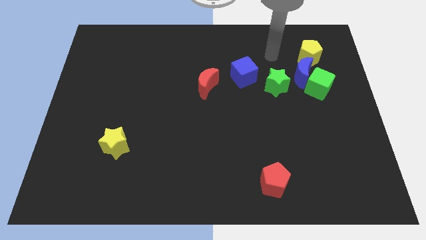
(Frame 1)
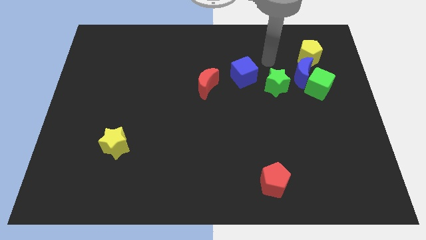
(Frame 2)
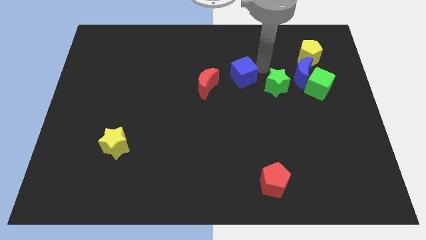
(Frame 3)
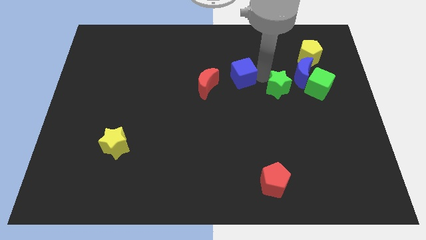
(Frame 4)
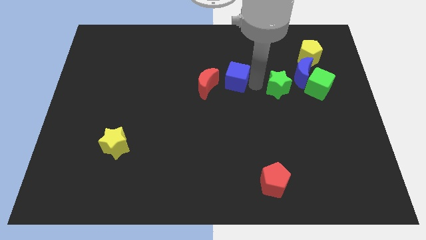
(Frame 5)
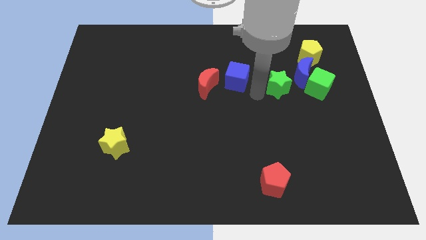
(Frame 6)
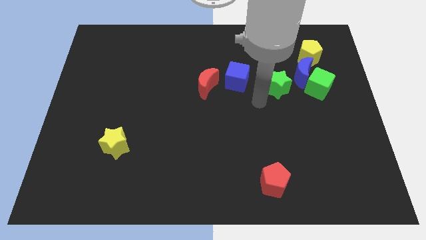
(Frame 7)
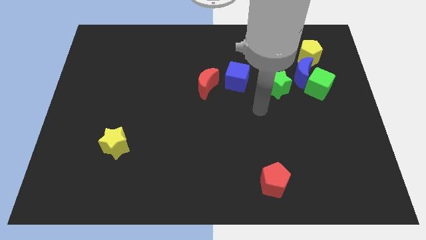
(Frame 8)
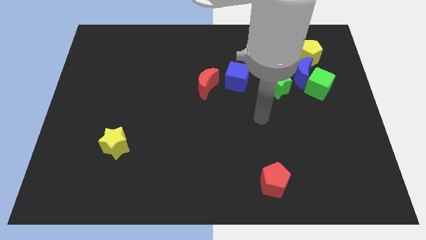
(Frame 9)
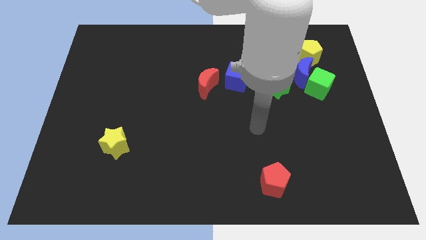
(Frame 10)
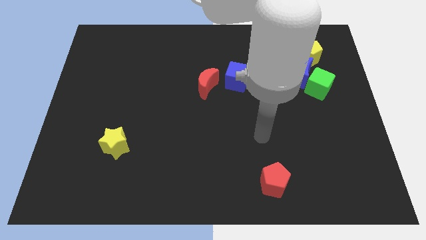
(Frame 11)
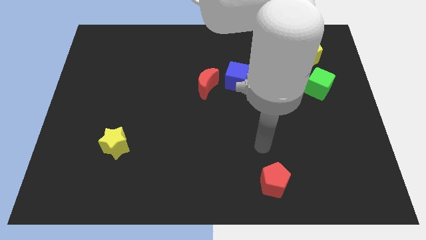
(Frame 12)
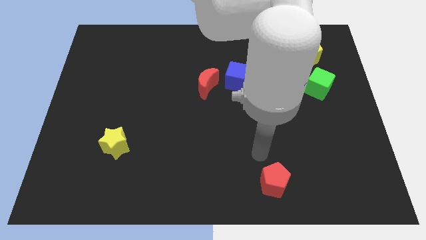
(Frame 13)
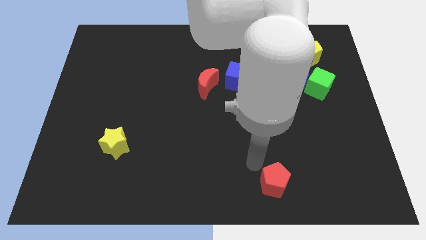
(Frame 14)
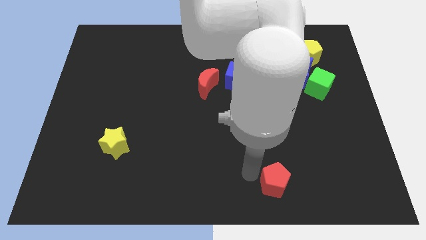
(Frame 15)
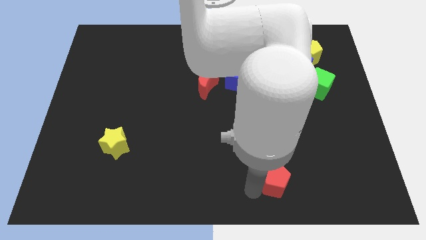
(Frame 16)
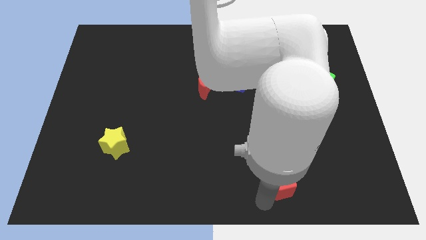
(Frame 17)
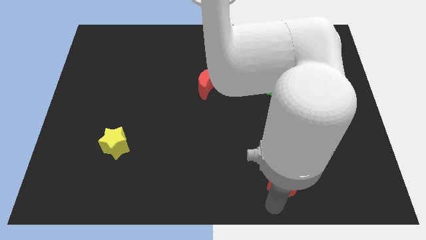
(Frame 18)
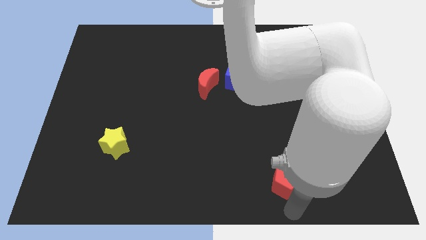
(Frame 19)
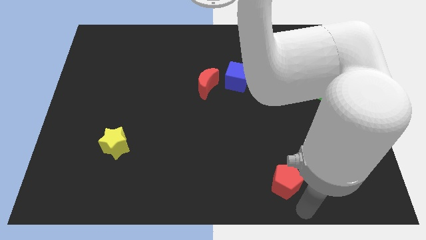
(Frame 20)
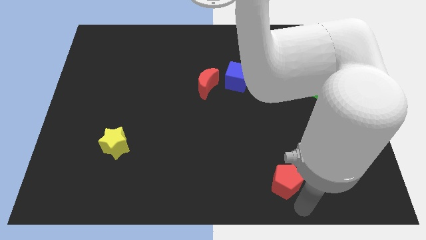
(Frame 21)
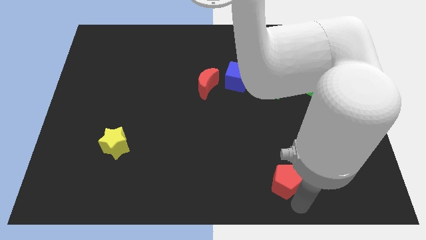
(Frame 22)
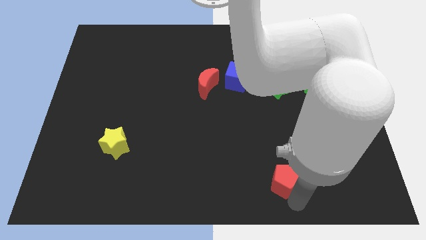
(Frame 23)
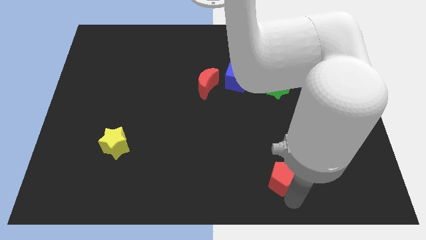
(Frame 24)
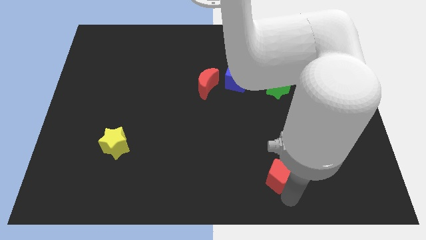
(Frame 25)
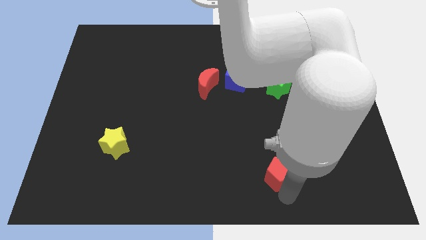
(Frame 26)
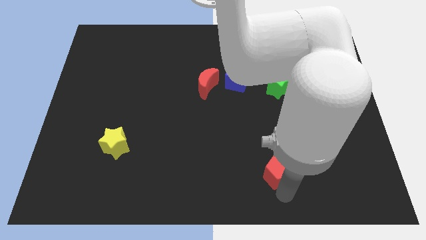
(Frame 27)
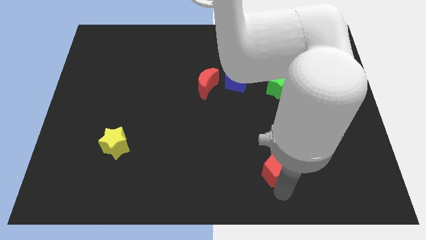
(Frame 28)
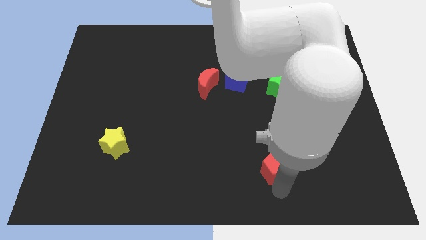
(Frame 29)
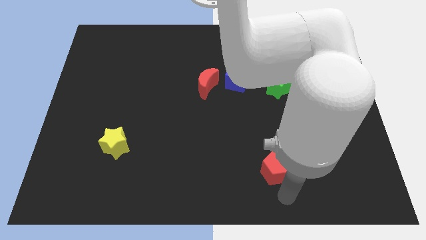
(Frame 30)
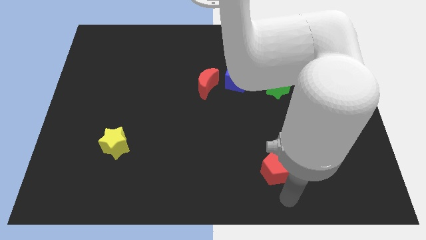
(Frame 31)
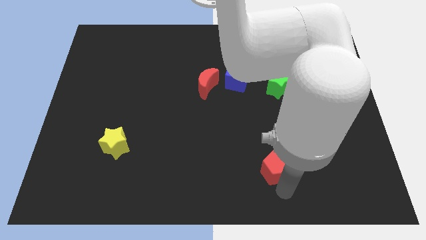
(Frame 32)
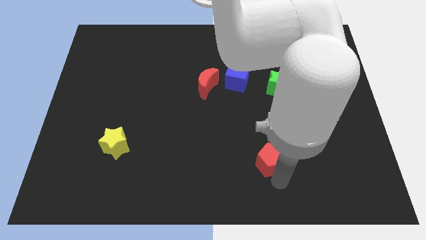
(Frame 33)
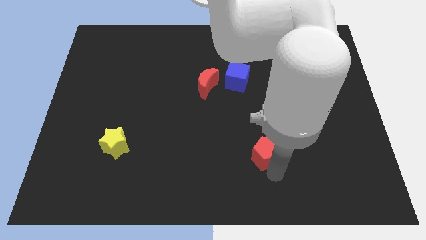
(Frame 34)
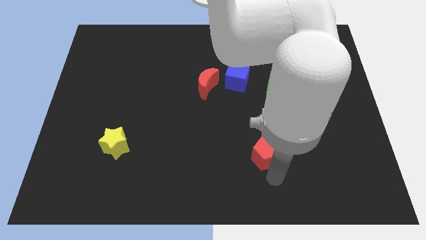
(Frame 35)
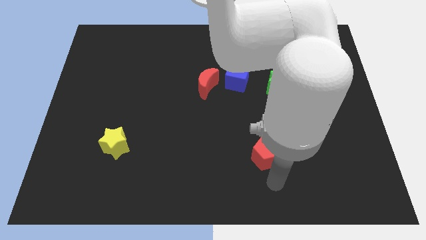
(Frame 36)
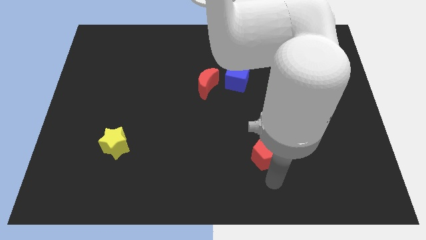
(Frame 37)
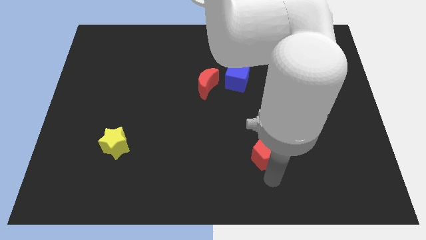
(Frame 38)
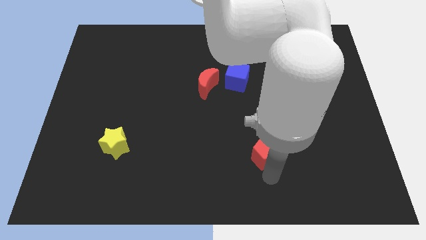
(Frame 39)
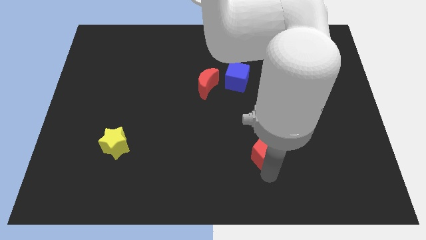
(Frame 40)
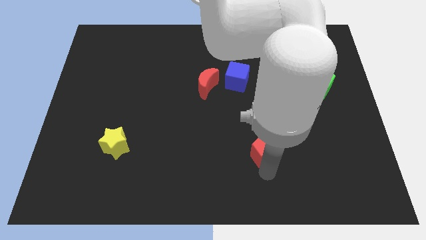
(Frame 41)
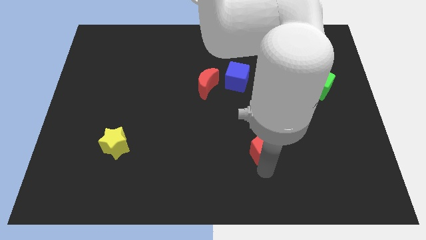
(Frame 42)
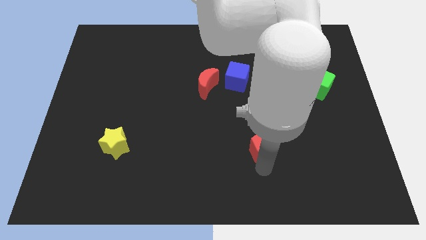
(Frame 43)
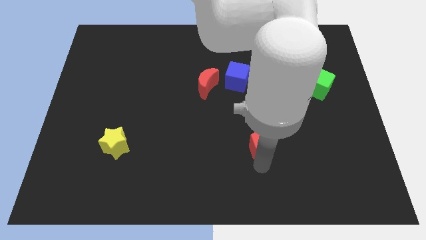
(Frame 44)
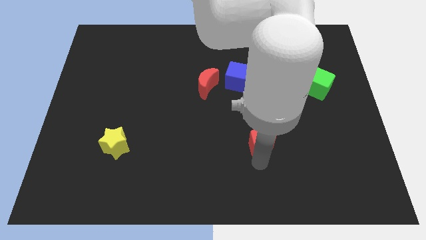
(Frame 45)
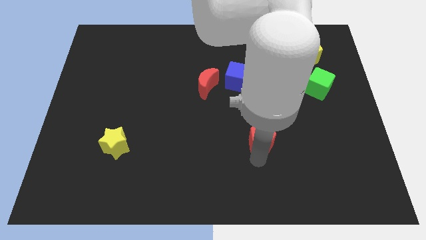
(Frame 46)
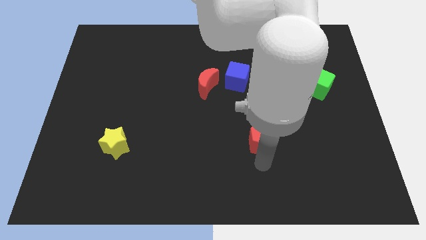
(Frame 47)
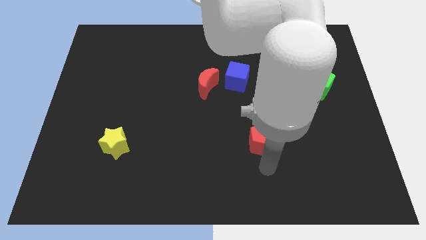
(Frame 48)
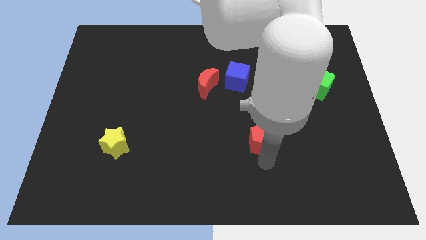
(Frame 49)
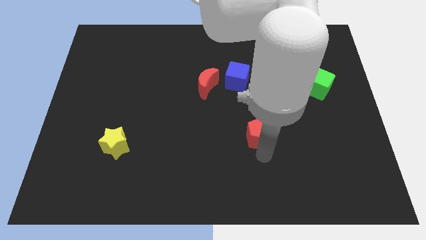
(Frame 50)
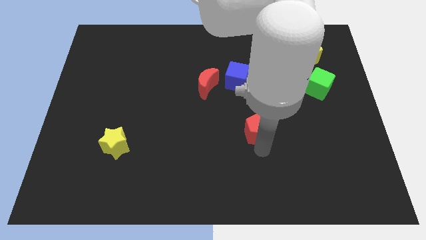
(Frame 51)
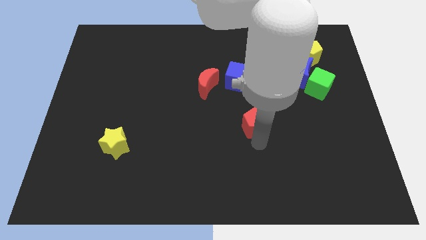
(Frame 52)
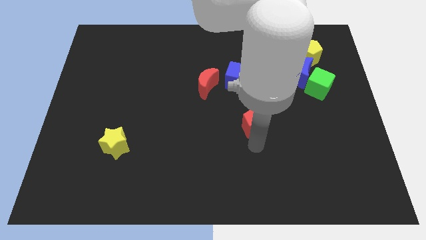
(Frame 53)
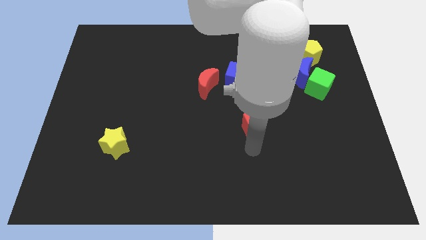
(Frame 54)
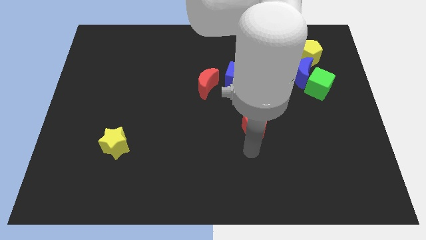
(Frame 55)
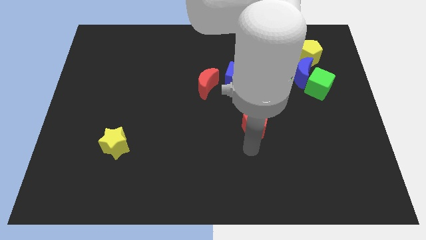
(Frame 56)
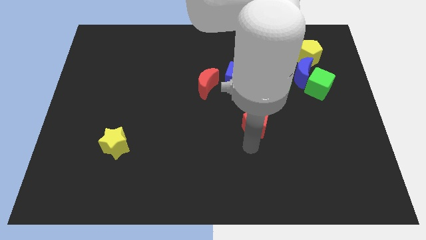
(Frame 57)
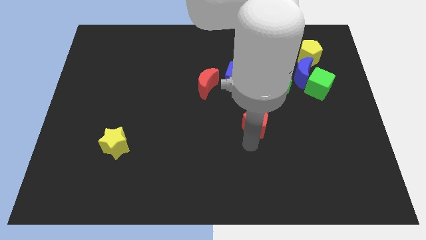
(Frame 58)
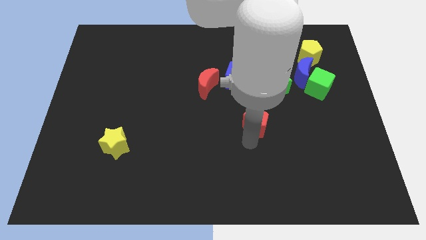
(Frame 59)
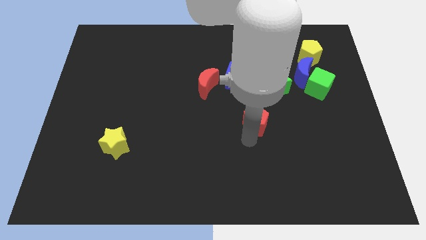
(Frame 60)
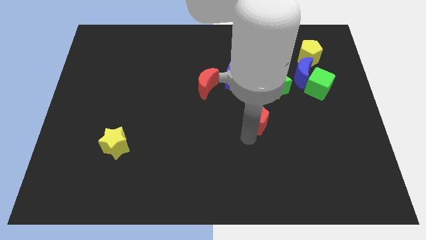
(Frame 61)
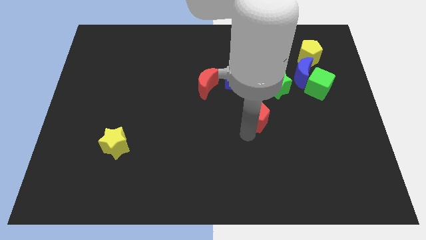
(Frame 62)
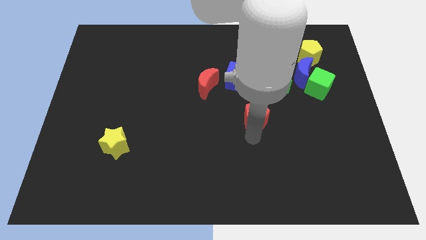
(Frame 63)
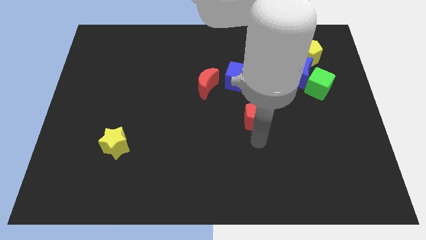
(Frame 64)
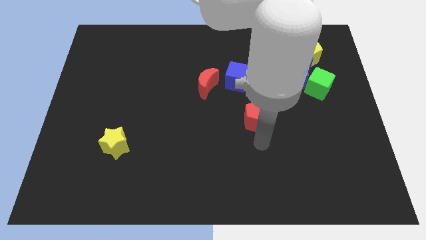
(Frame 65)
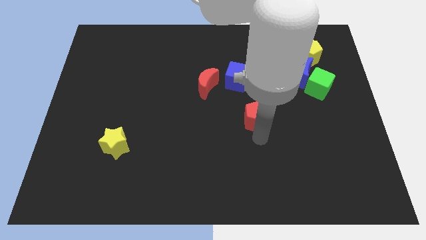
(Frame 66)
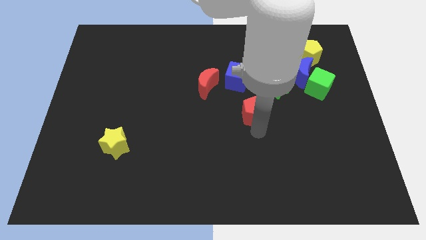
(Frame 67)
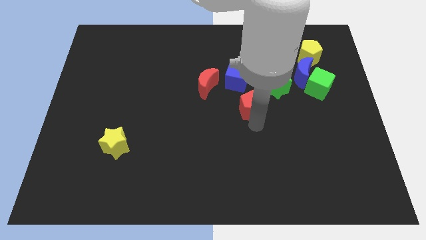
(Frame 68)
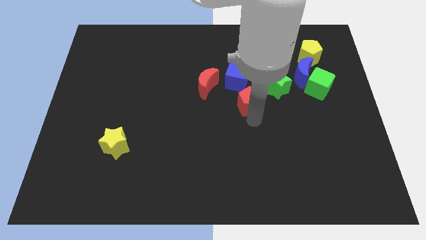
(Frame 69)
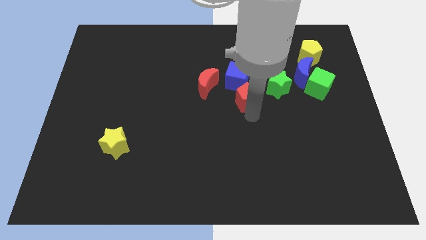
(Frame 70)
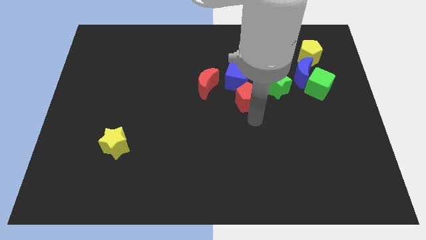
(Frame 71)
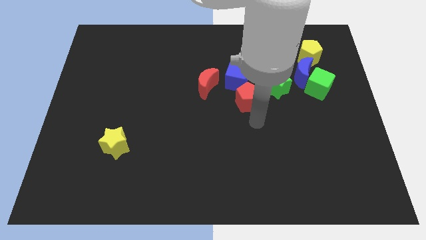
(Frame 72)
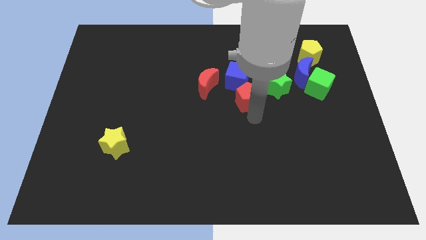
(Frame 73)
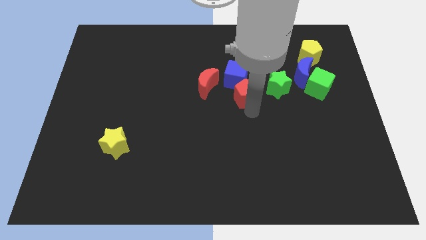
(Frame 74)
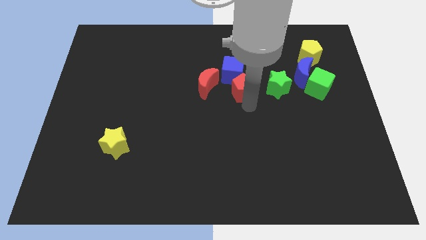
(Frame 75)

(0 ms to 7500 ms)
put the red pentagon to the blue cube
